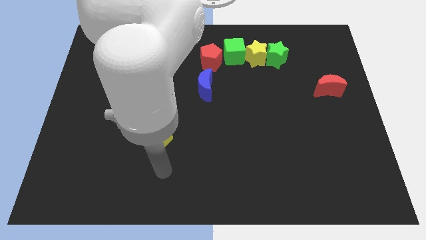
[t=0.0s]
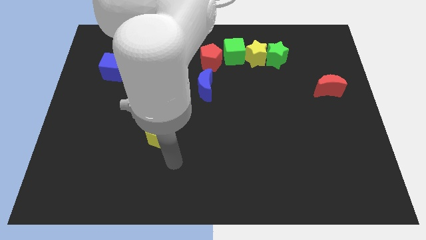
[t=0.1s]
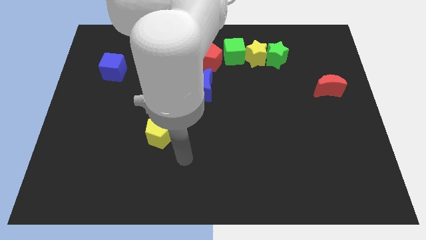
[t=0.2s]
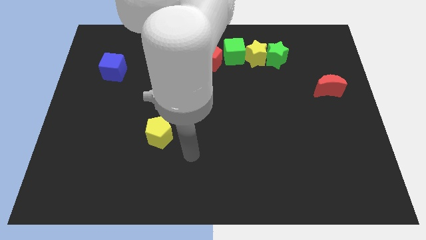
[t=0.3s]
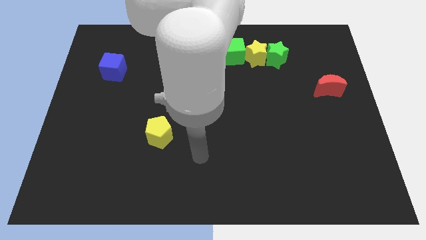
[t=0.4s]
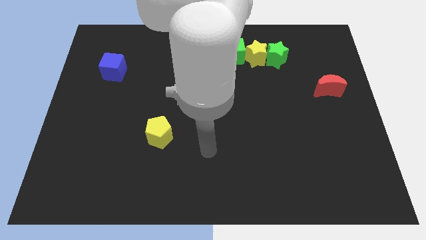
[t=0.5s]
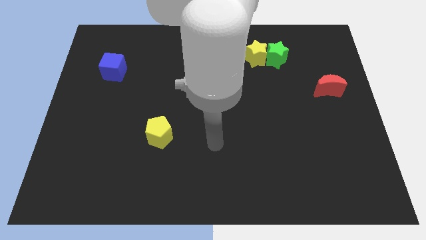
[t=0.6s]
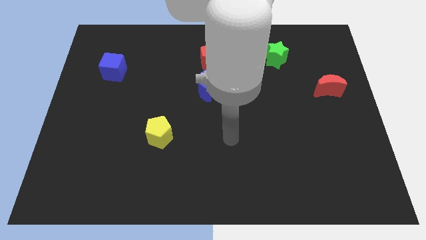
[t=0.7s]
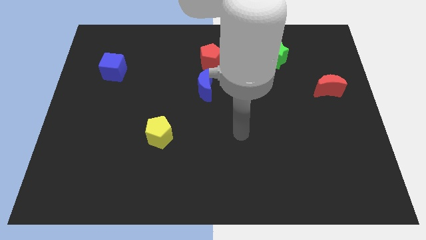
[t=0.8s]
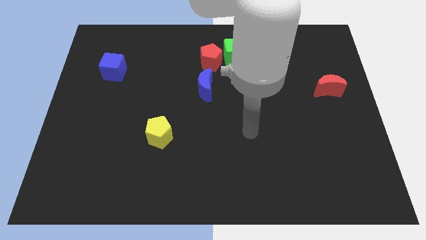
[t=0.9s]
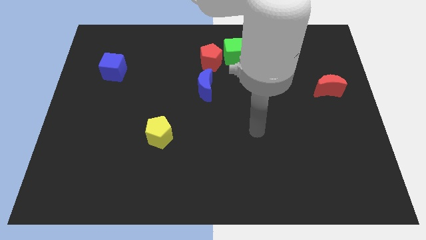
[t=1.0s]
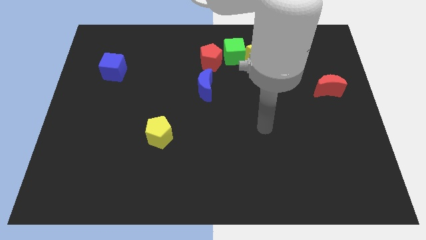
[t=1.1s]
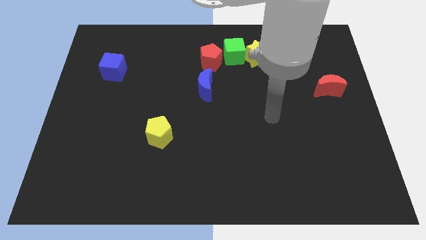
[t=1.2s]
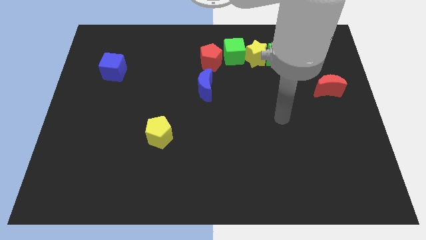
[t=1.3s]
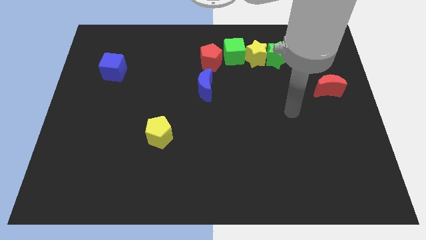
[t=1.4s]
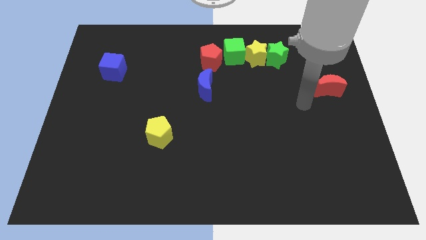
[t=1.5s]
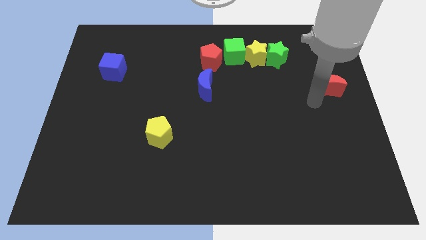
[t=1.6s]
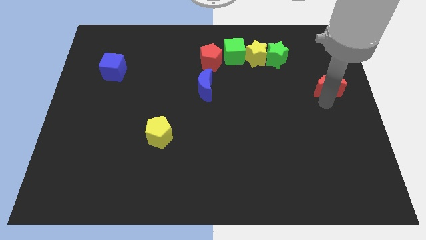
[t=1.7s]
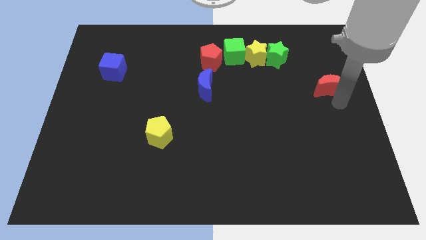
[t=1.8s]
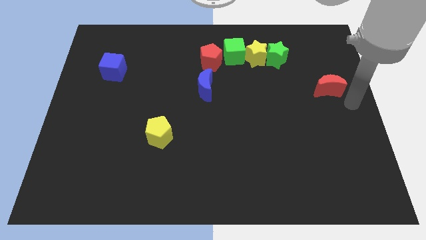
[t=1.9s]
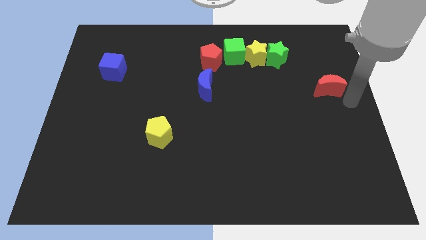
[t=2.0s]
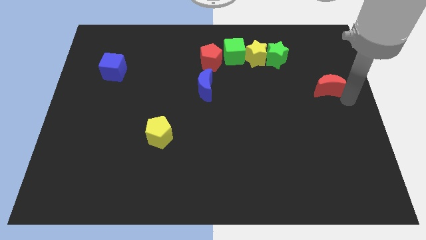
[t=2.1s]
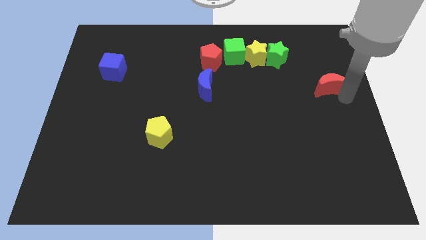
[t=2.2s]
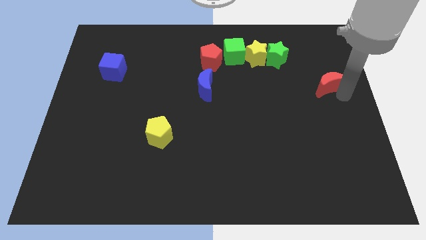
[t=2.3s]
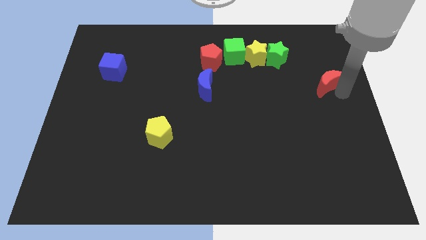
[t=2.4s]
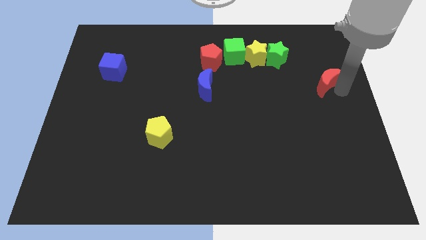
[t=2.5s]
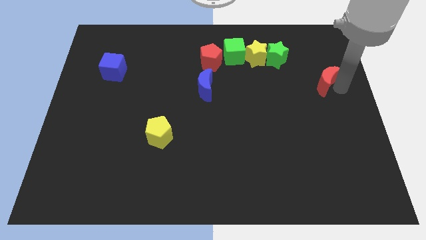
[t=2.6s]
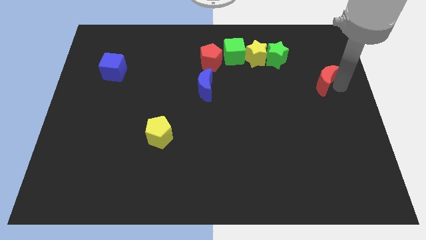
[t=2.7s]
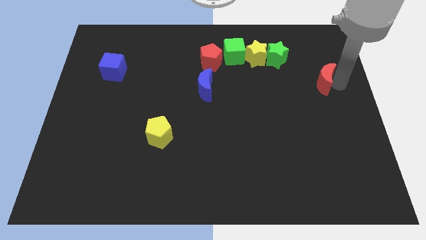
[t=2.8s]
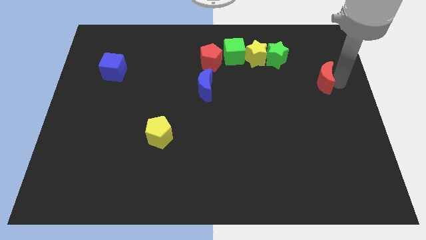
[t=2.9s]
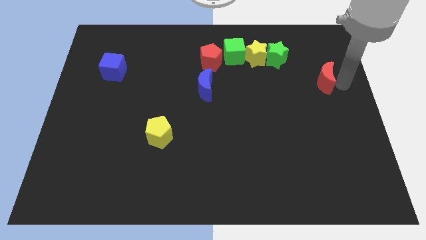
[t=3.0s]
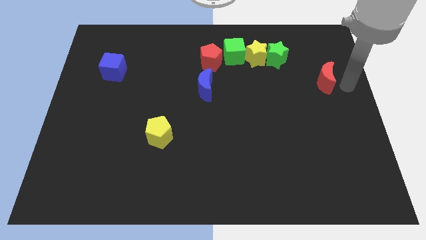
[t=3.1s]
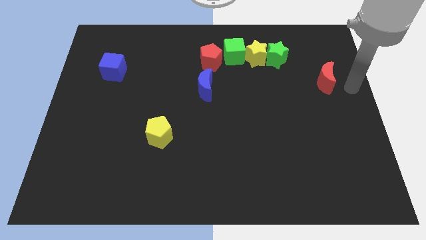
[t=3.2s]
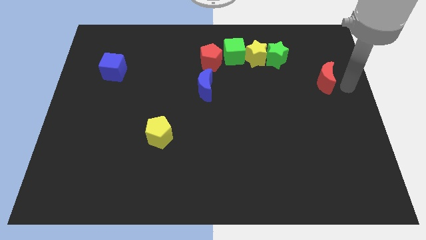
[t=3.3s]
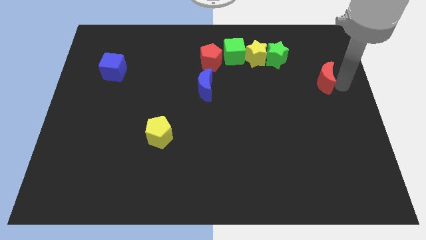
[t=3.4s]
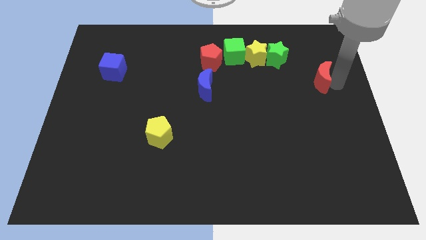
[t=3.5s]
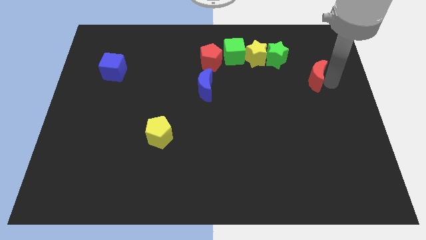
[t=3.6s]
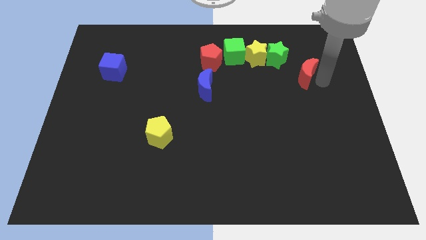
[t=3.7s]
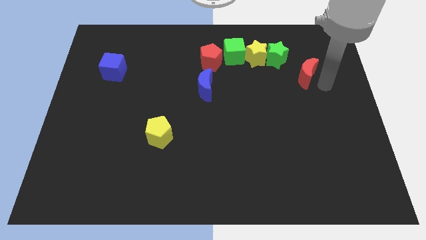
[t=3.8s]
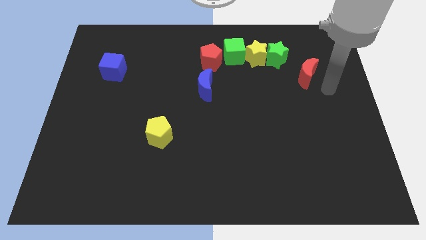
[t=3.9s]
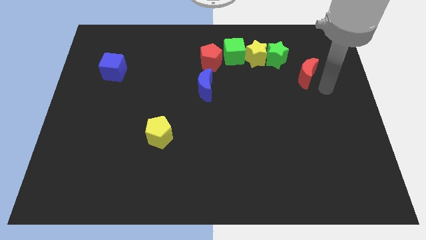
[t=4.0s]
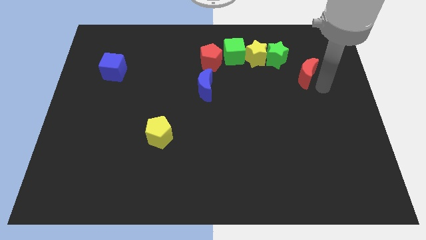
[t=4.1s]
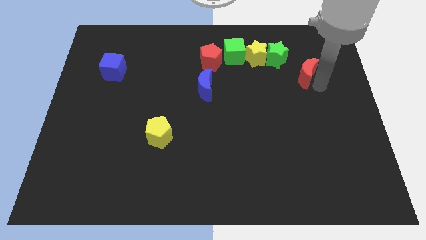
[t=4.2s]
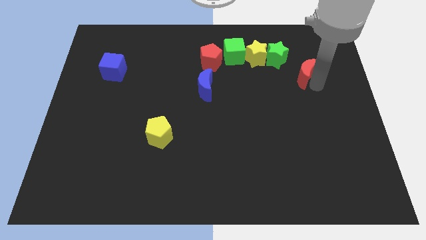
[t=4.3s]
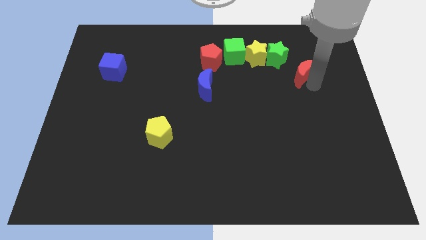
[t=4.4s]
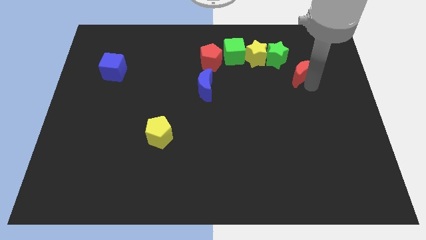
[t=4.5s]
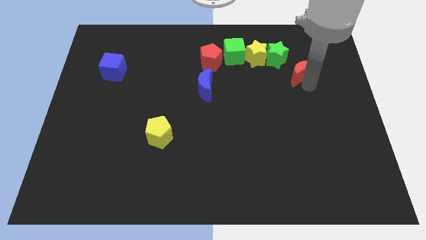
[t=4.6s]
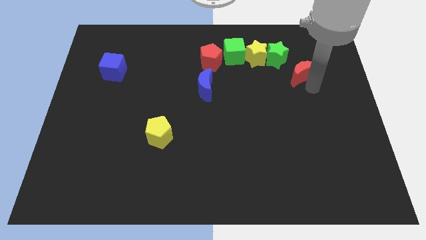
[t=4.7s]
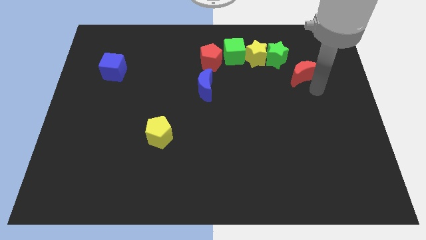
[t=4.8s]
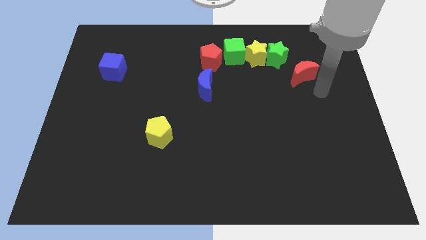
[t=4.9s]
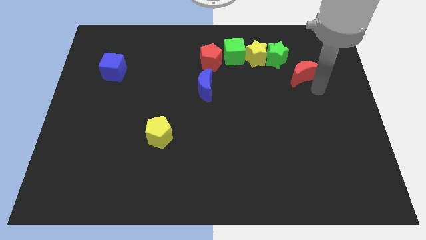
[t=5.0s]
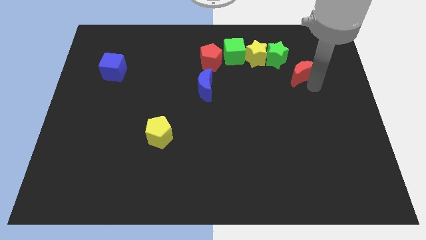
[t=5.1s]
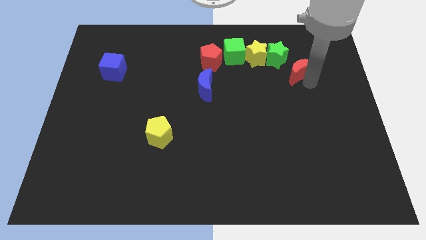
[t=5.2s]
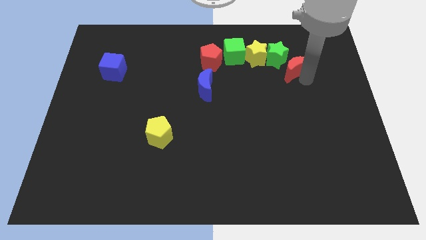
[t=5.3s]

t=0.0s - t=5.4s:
slide the red moon towards the green star

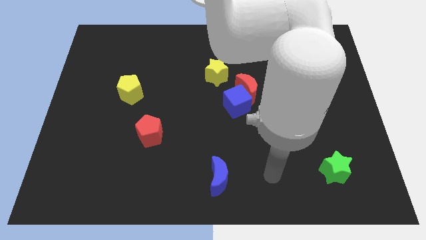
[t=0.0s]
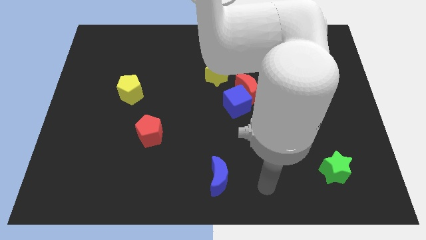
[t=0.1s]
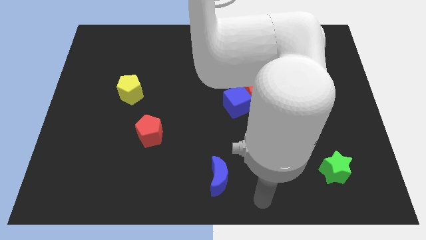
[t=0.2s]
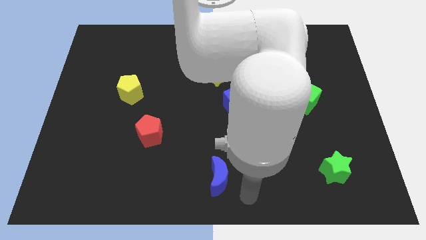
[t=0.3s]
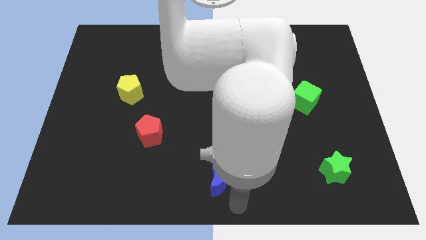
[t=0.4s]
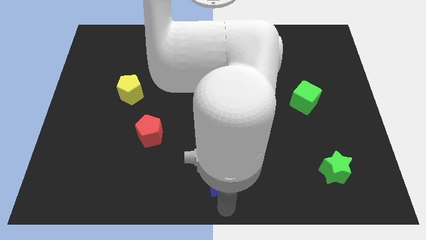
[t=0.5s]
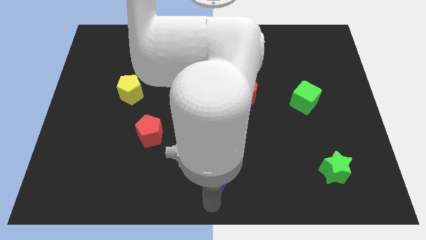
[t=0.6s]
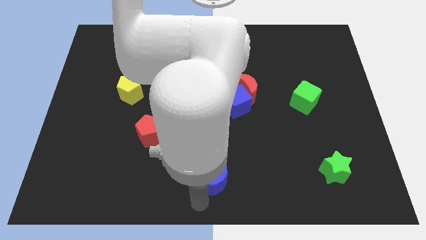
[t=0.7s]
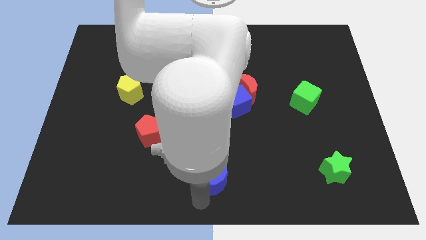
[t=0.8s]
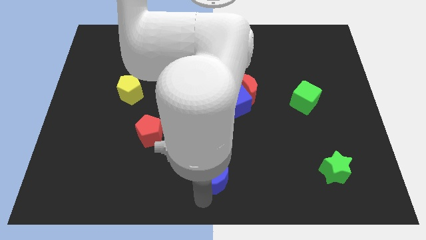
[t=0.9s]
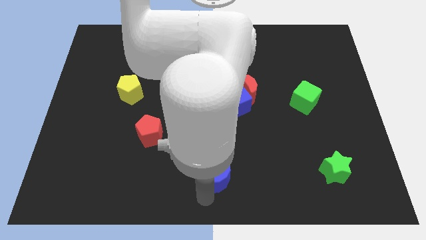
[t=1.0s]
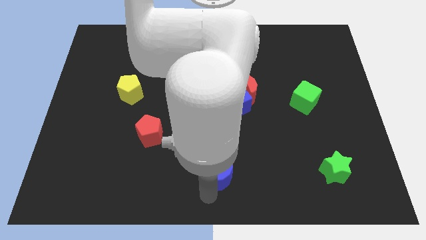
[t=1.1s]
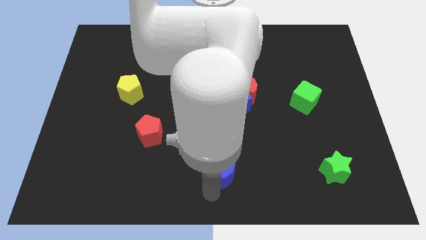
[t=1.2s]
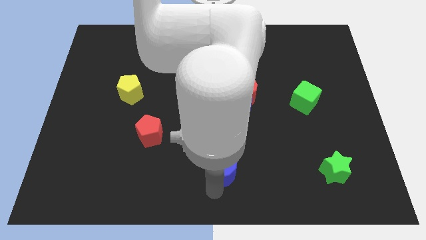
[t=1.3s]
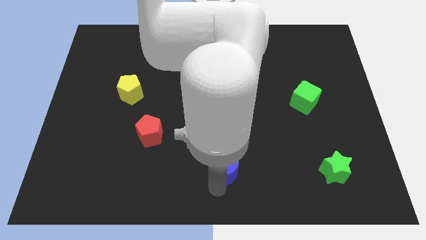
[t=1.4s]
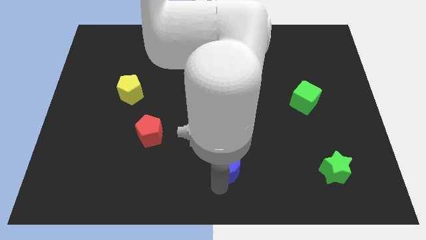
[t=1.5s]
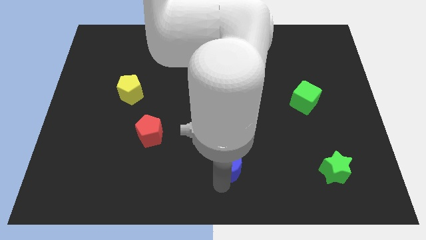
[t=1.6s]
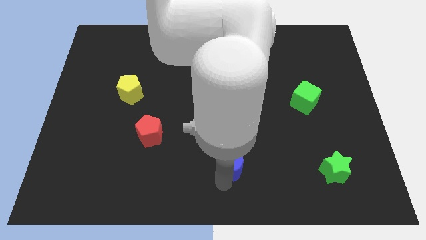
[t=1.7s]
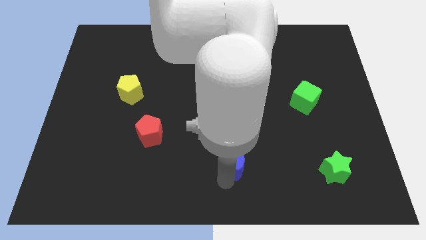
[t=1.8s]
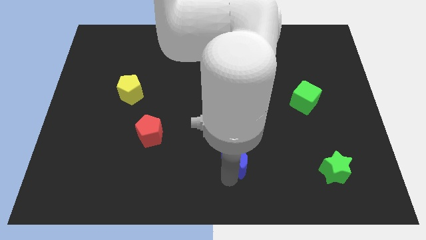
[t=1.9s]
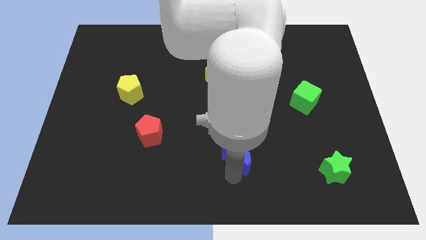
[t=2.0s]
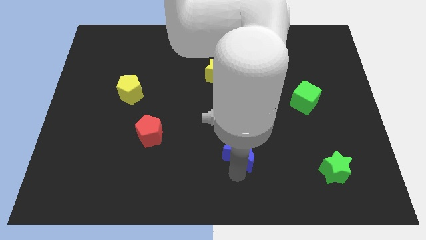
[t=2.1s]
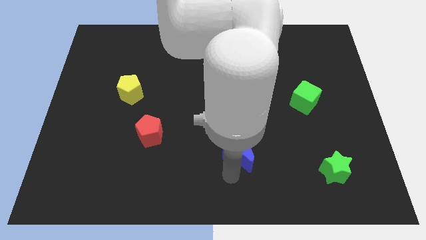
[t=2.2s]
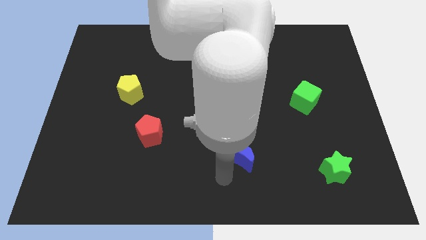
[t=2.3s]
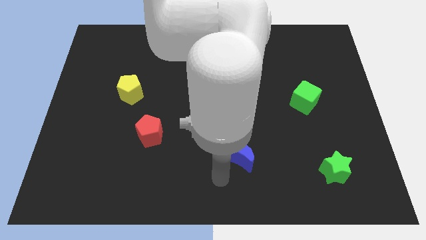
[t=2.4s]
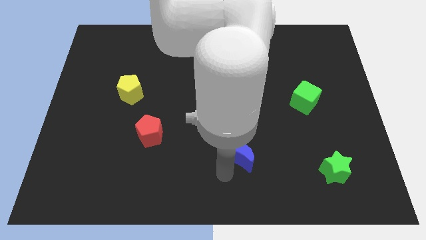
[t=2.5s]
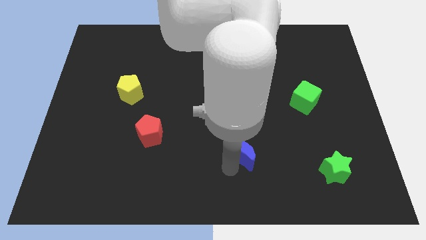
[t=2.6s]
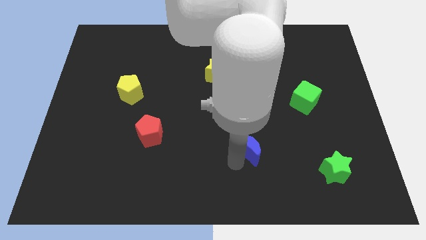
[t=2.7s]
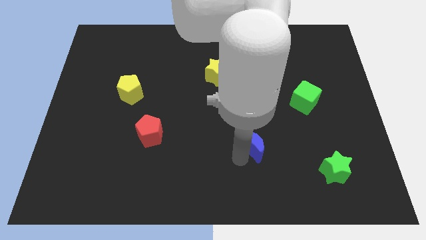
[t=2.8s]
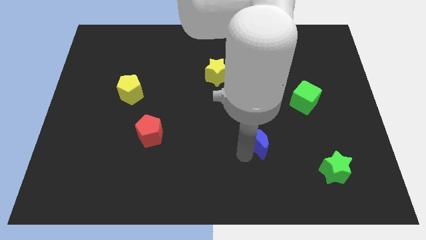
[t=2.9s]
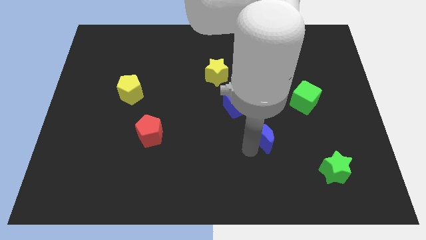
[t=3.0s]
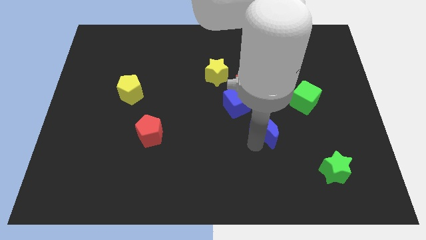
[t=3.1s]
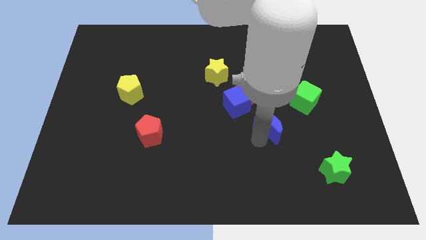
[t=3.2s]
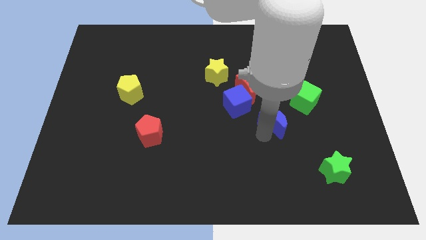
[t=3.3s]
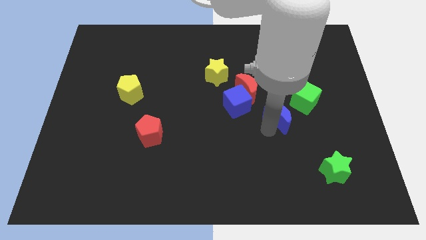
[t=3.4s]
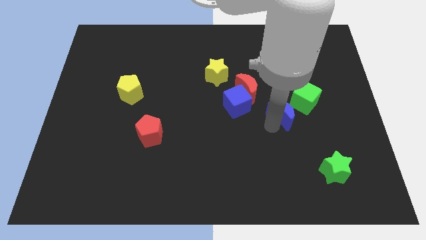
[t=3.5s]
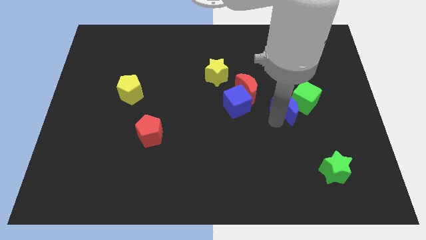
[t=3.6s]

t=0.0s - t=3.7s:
push the blue moon next to the green cube
